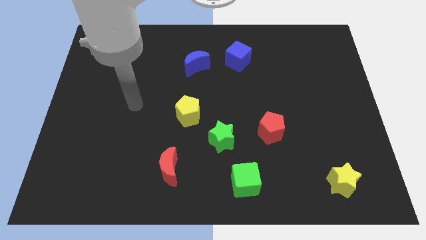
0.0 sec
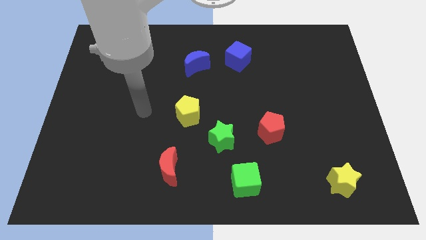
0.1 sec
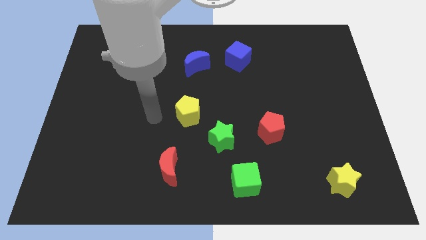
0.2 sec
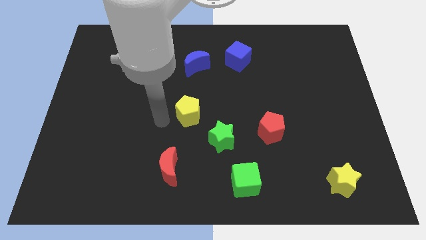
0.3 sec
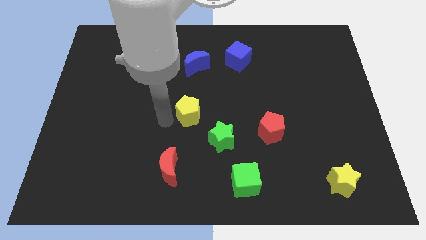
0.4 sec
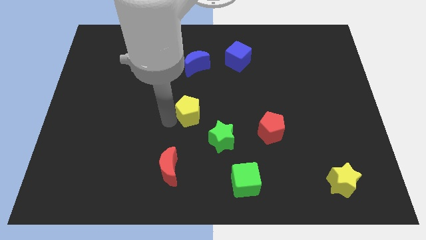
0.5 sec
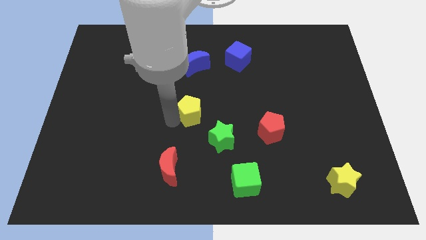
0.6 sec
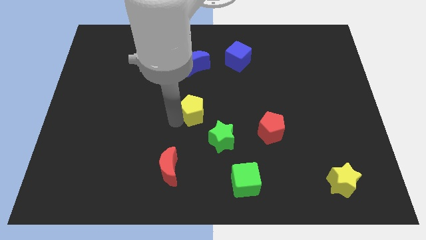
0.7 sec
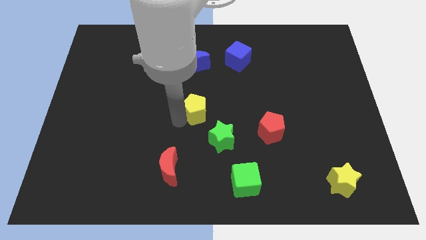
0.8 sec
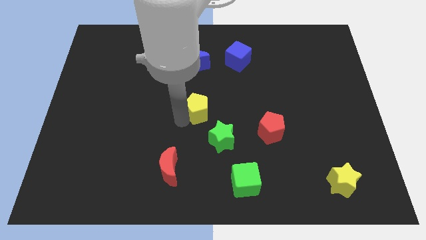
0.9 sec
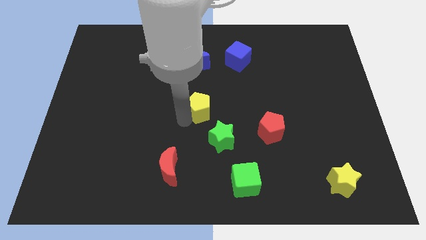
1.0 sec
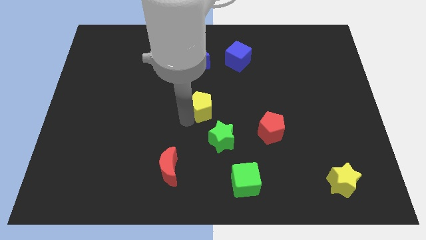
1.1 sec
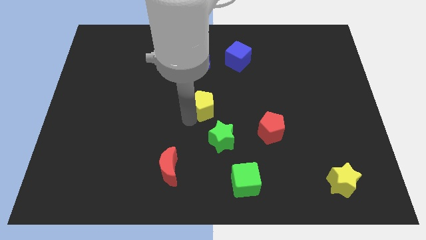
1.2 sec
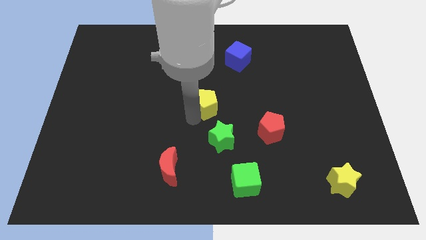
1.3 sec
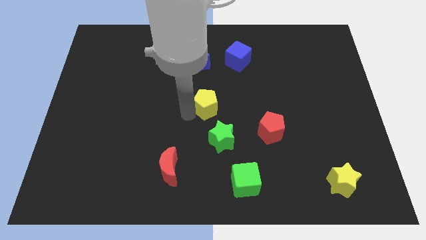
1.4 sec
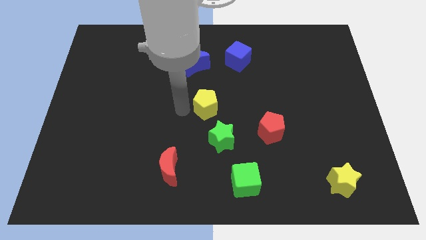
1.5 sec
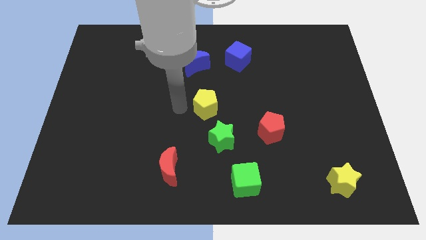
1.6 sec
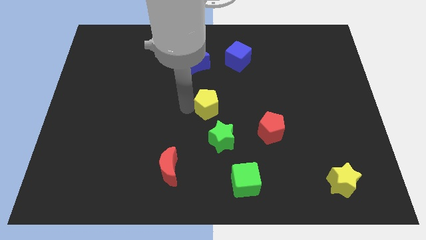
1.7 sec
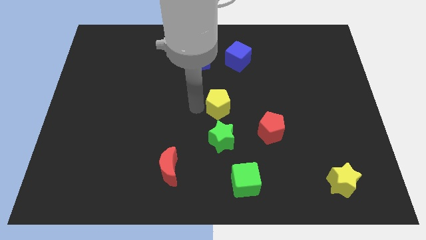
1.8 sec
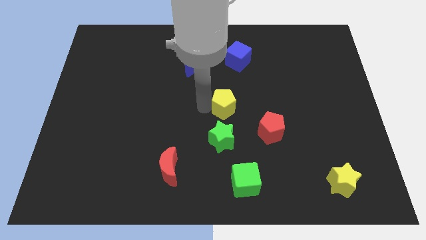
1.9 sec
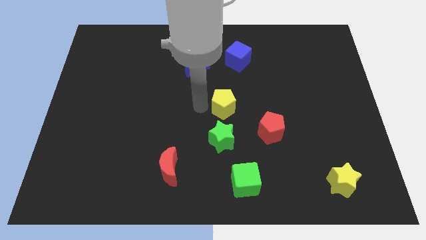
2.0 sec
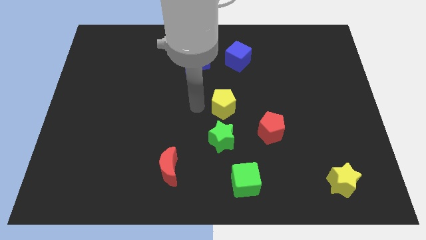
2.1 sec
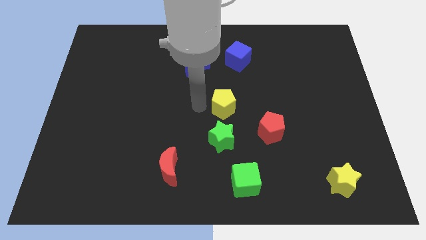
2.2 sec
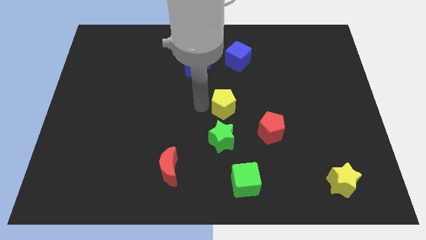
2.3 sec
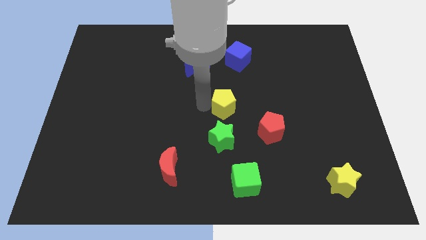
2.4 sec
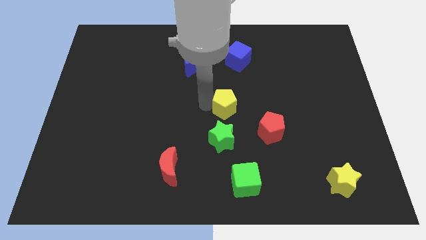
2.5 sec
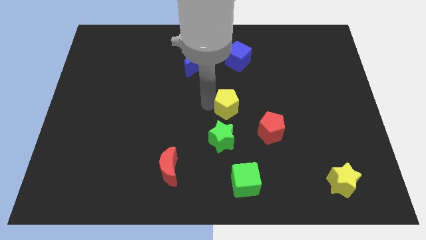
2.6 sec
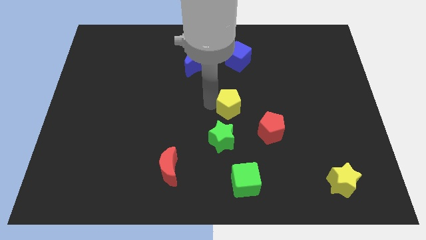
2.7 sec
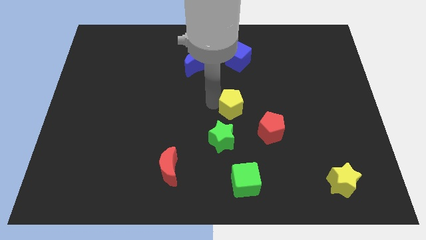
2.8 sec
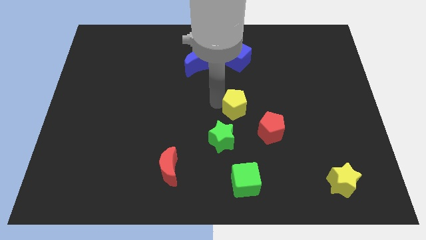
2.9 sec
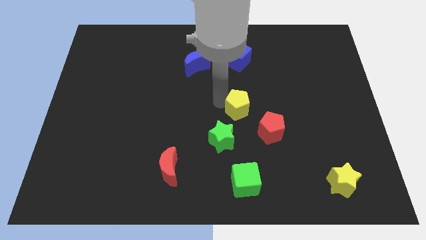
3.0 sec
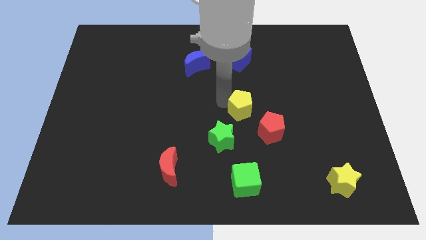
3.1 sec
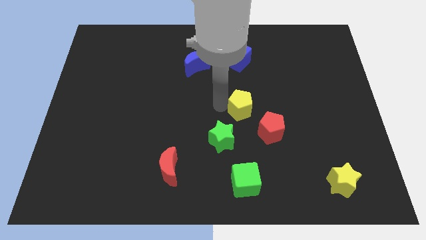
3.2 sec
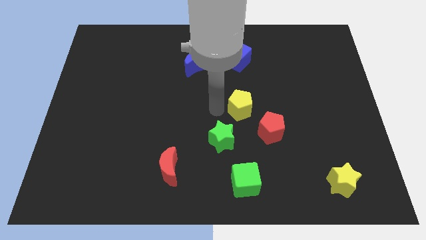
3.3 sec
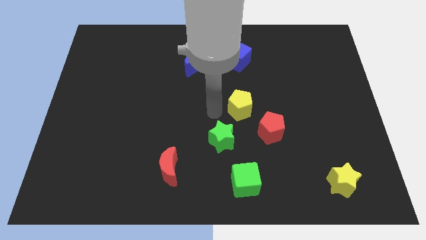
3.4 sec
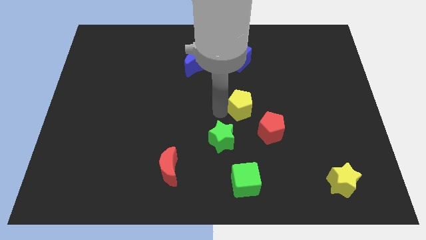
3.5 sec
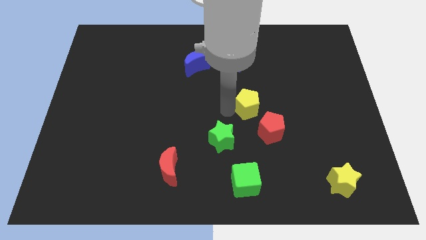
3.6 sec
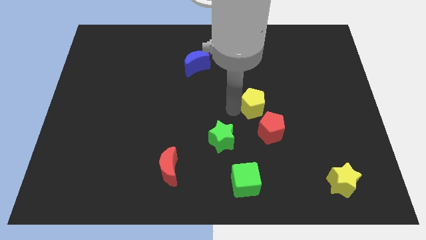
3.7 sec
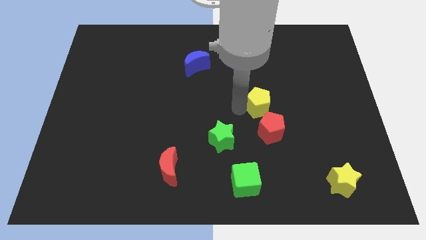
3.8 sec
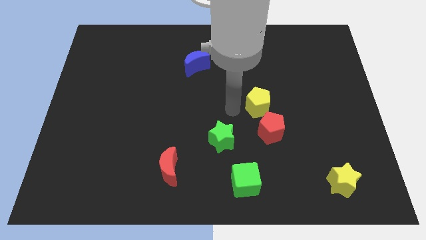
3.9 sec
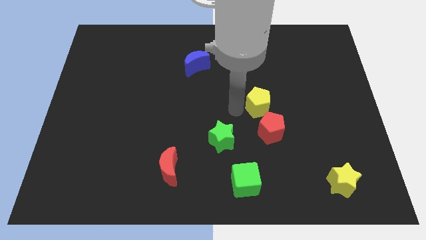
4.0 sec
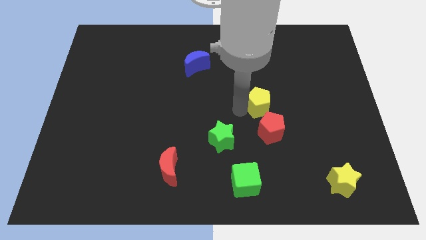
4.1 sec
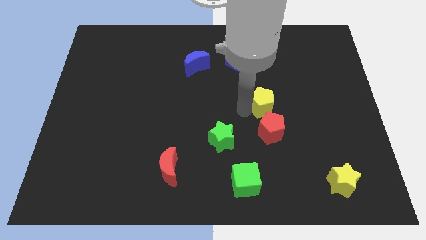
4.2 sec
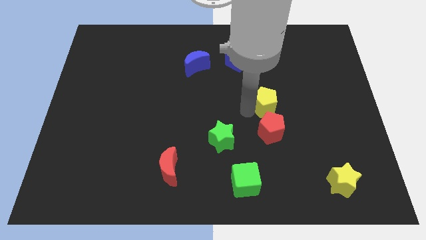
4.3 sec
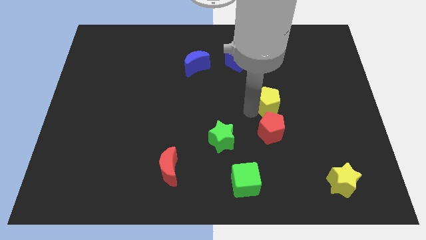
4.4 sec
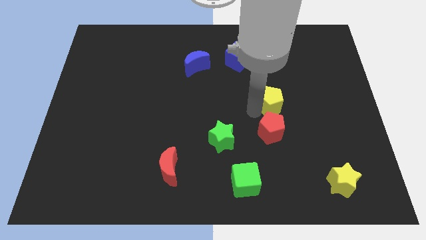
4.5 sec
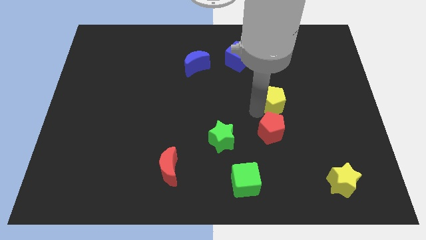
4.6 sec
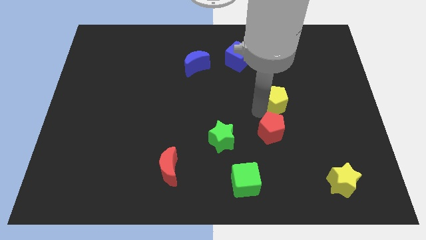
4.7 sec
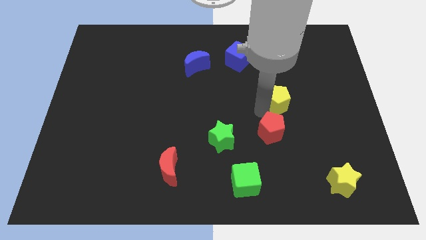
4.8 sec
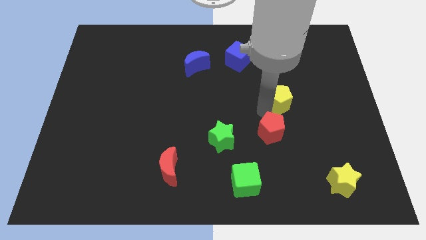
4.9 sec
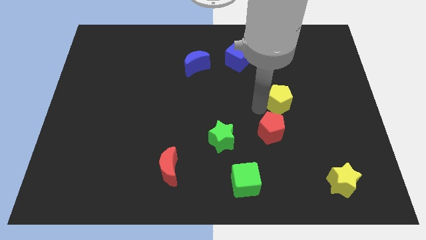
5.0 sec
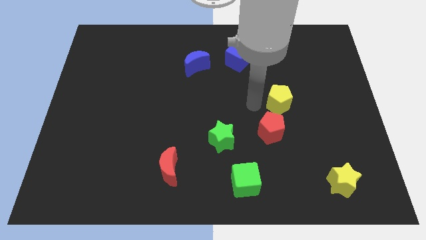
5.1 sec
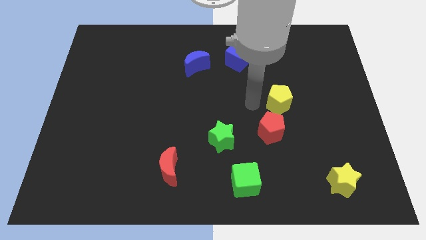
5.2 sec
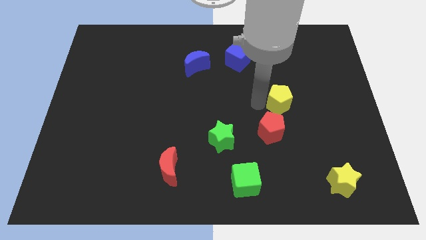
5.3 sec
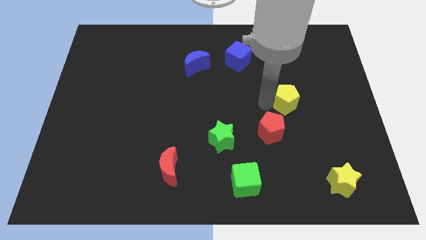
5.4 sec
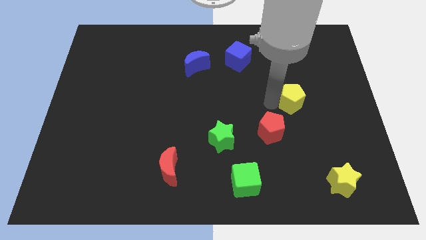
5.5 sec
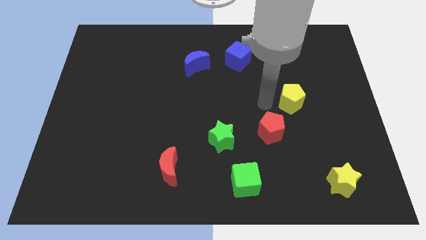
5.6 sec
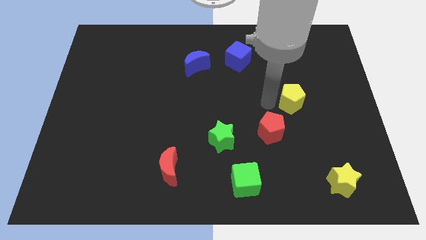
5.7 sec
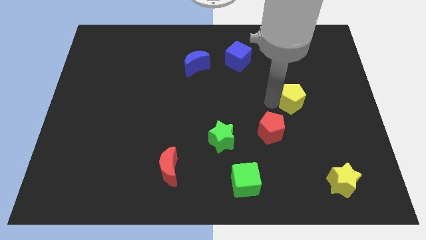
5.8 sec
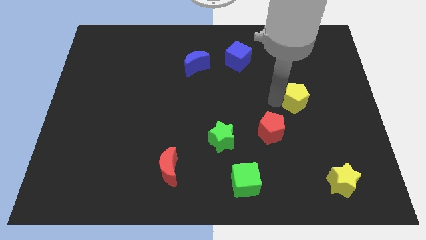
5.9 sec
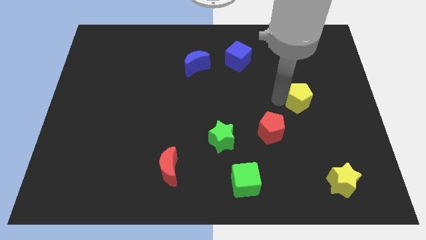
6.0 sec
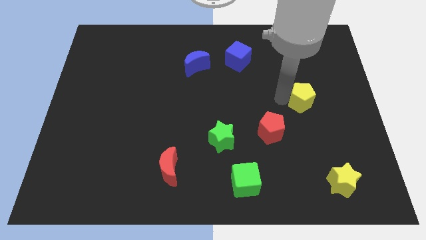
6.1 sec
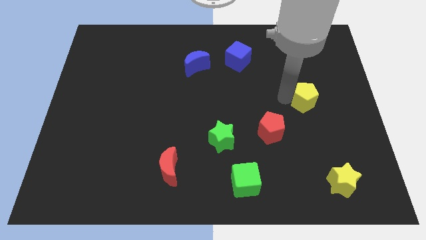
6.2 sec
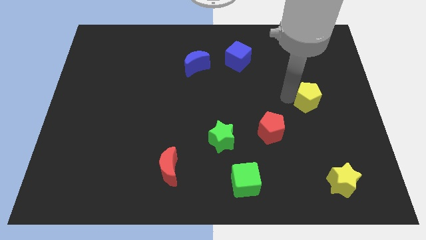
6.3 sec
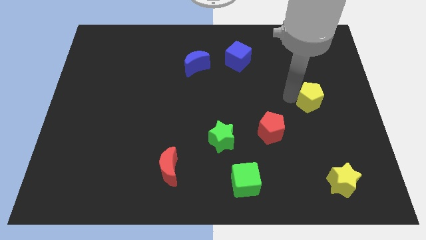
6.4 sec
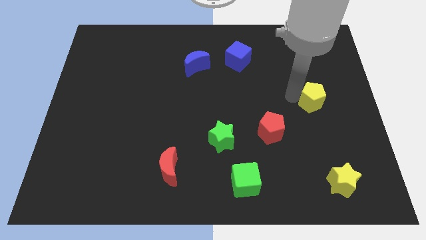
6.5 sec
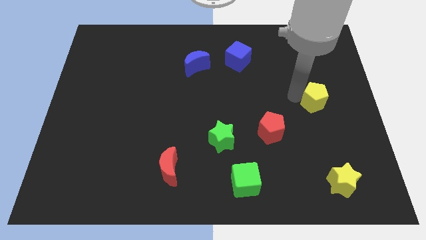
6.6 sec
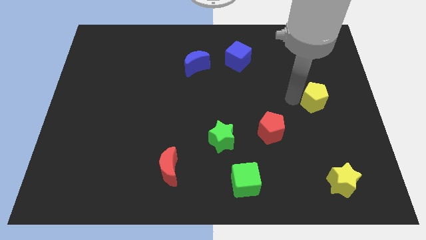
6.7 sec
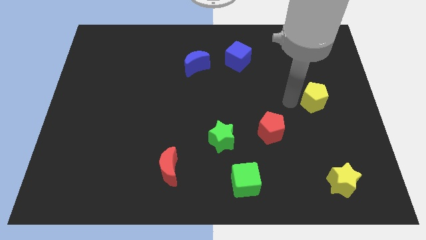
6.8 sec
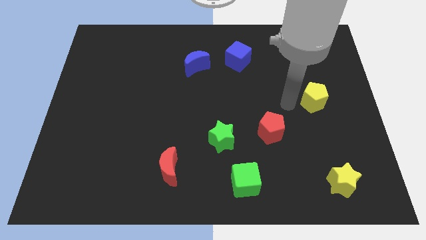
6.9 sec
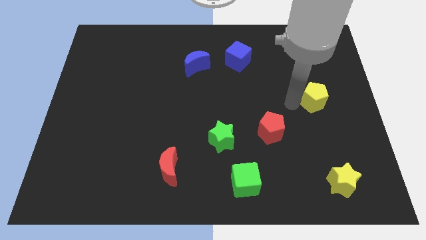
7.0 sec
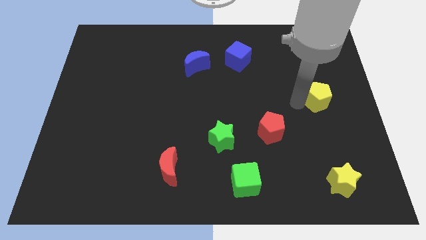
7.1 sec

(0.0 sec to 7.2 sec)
push the yellow pentagon to the right side
